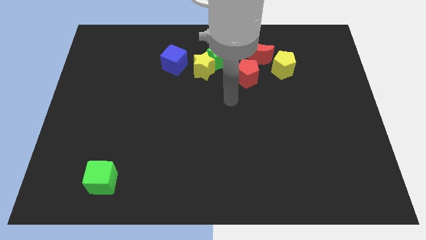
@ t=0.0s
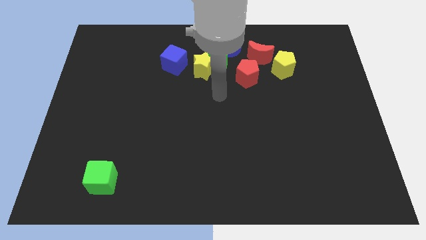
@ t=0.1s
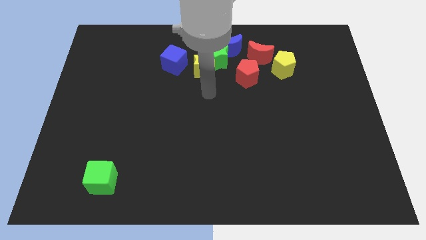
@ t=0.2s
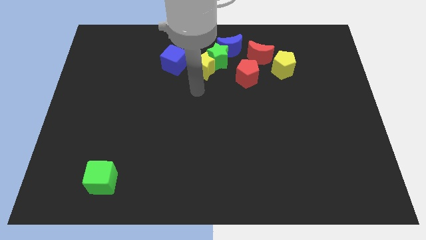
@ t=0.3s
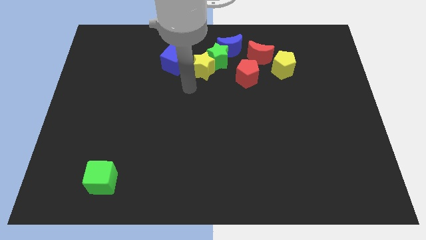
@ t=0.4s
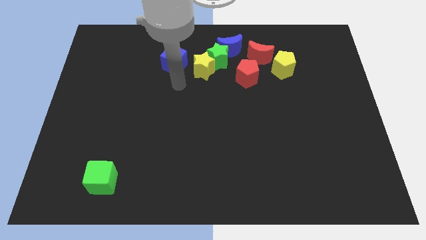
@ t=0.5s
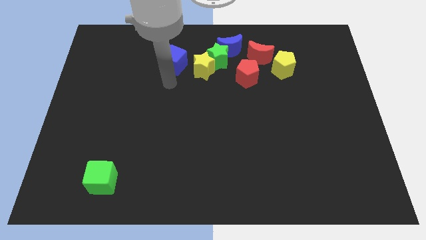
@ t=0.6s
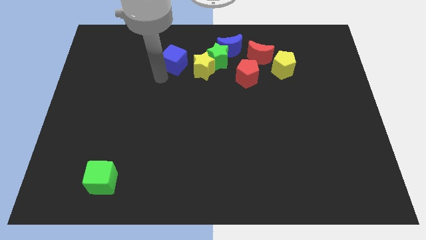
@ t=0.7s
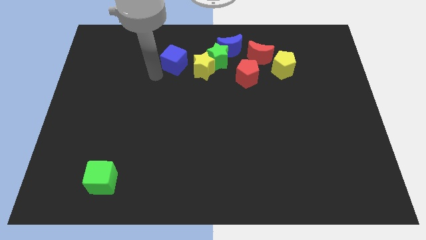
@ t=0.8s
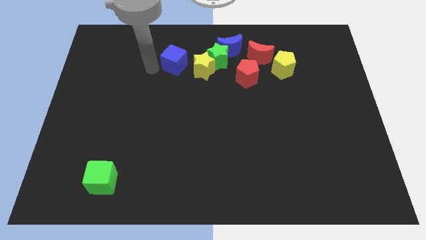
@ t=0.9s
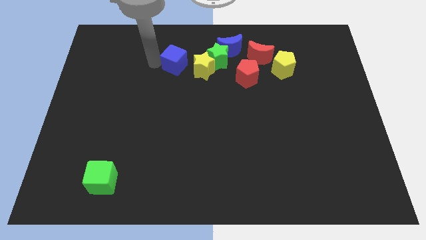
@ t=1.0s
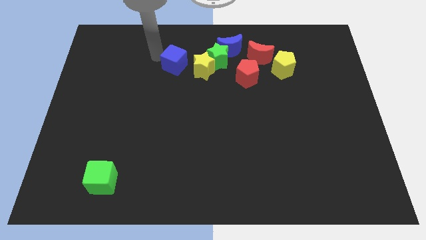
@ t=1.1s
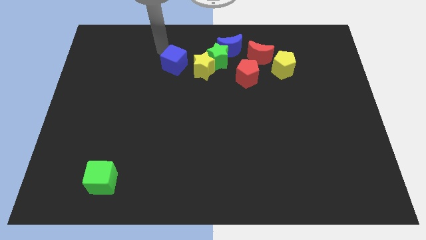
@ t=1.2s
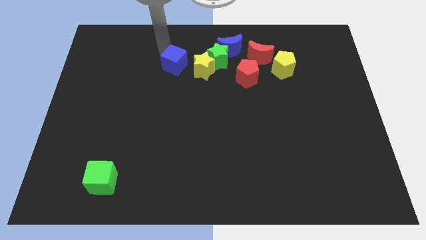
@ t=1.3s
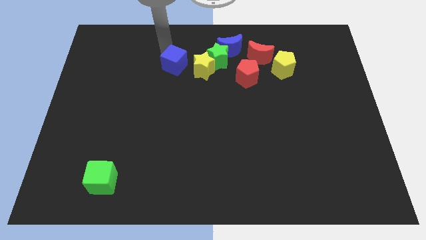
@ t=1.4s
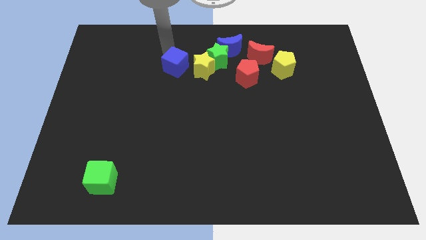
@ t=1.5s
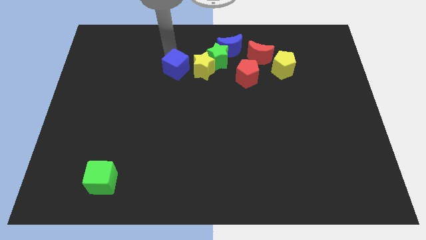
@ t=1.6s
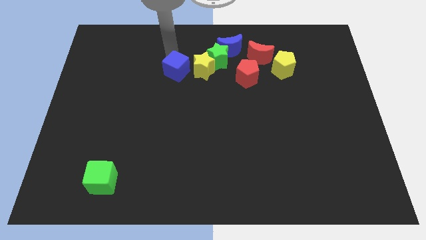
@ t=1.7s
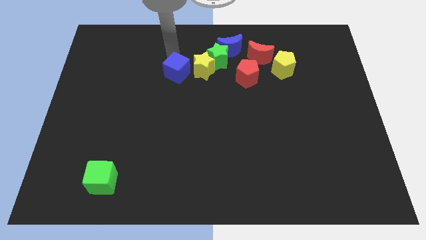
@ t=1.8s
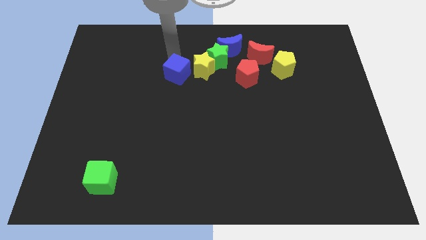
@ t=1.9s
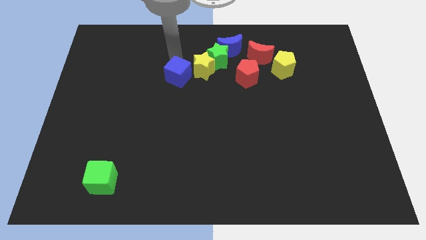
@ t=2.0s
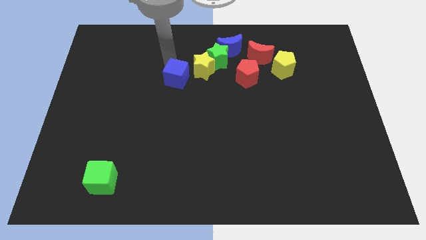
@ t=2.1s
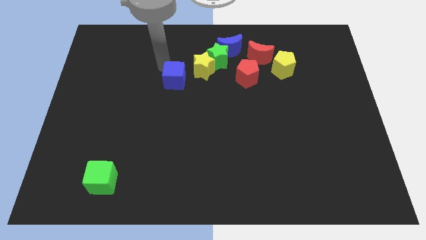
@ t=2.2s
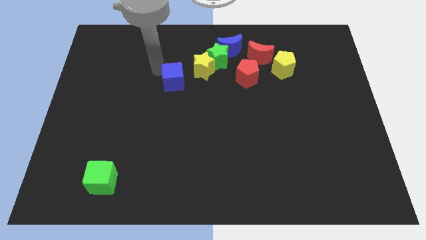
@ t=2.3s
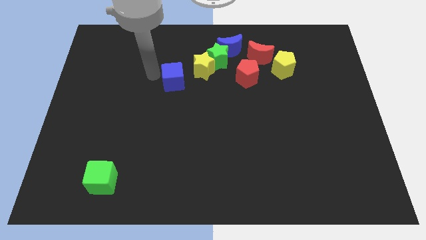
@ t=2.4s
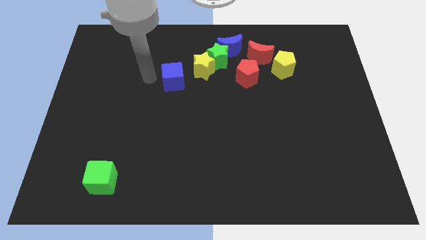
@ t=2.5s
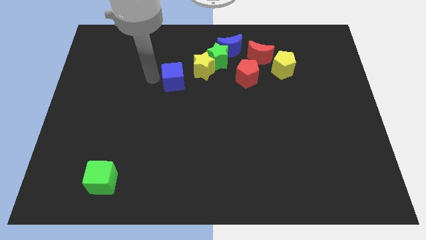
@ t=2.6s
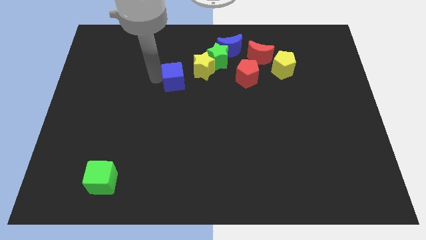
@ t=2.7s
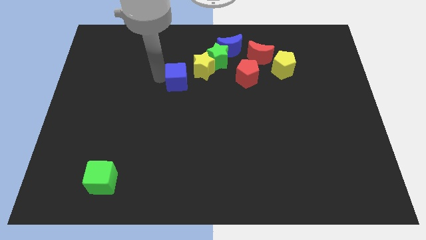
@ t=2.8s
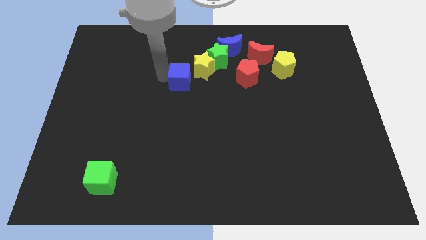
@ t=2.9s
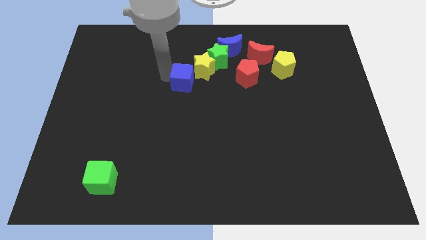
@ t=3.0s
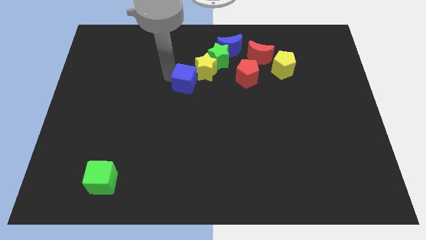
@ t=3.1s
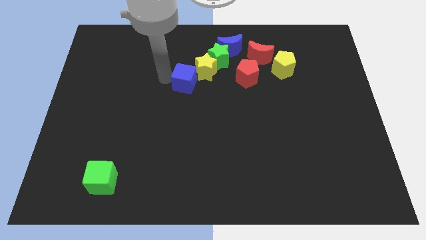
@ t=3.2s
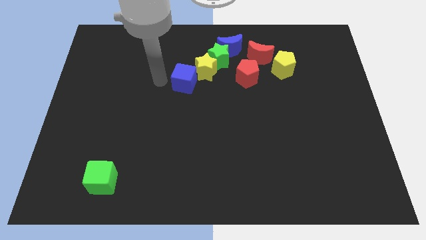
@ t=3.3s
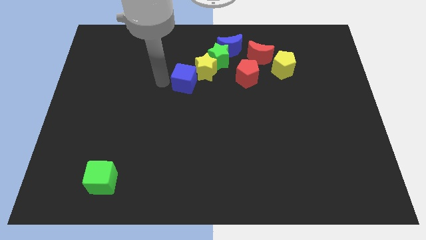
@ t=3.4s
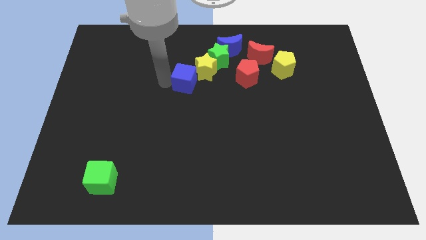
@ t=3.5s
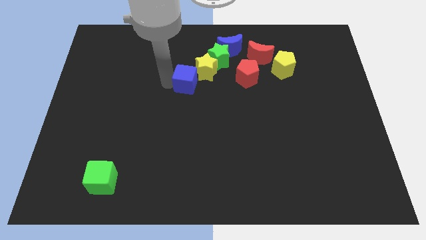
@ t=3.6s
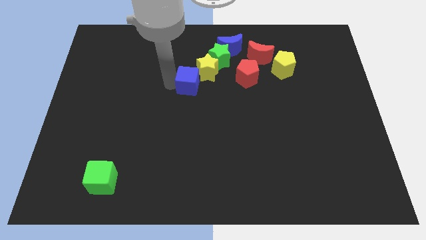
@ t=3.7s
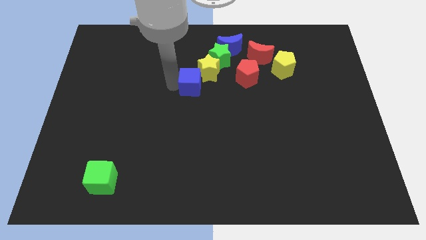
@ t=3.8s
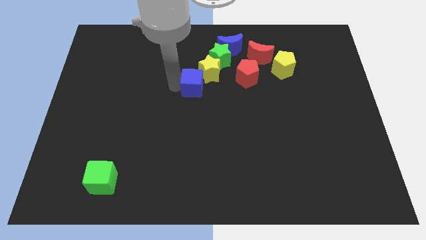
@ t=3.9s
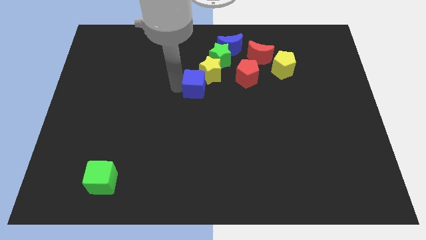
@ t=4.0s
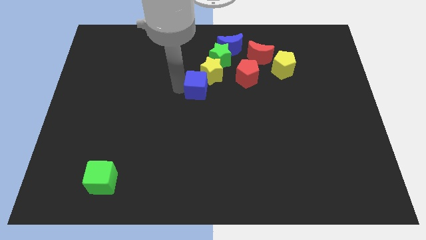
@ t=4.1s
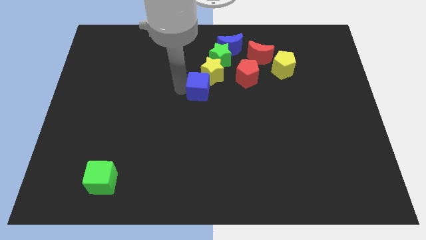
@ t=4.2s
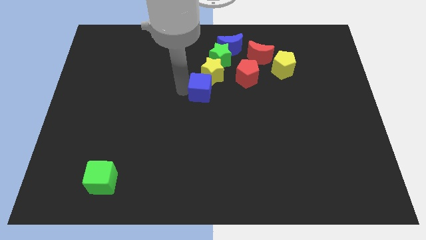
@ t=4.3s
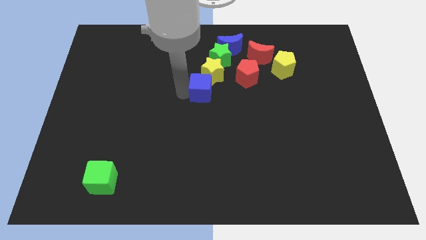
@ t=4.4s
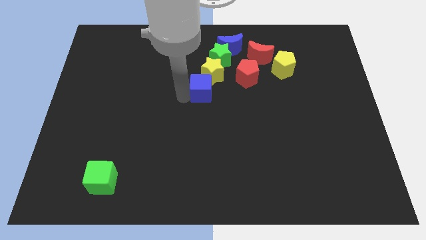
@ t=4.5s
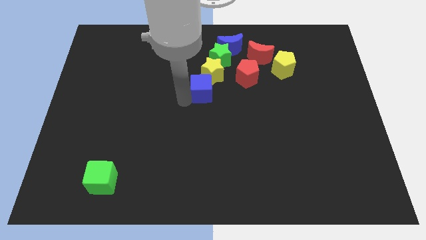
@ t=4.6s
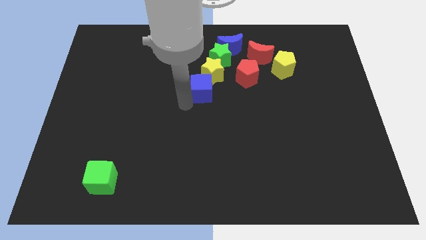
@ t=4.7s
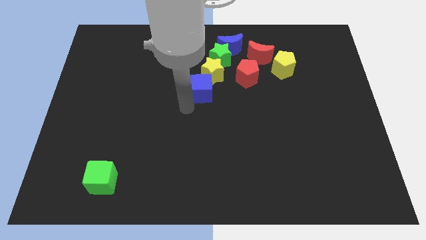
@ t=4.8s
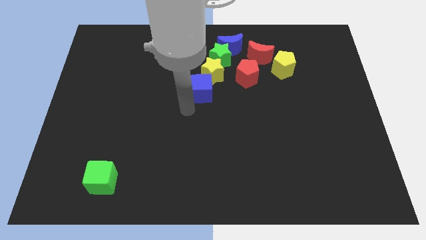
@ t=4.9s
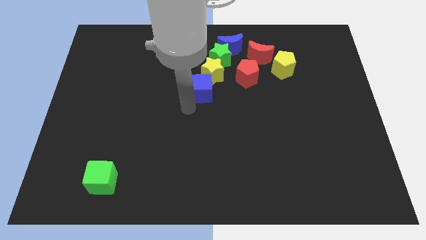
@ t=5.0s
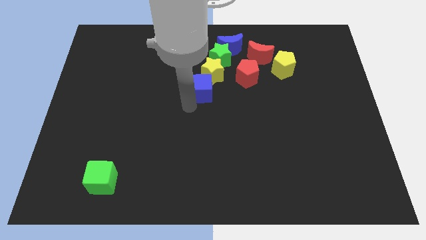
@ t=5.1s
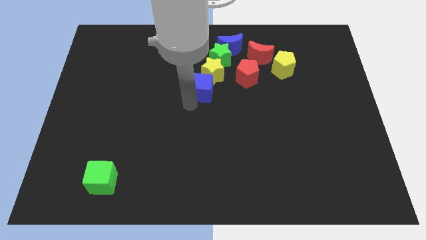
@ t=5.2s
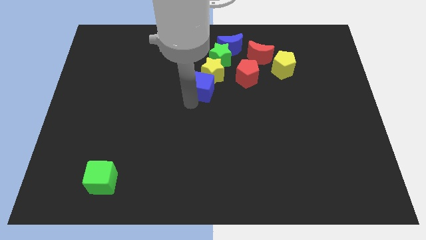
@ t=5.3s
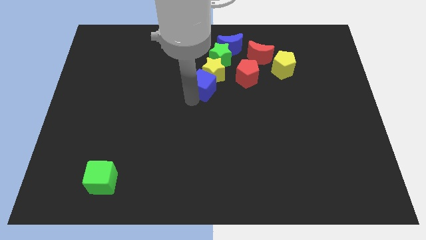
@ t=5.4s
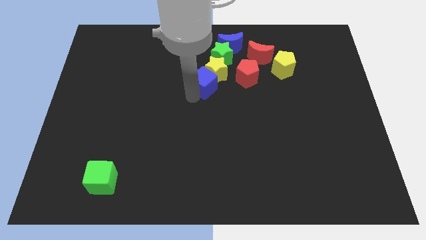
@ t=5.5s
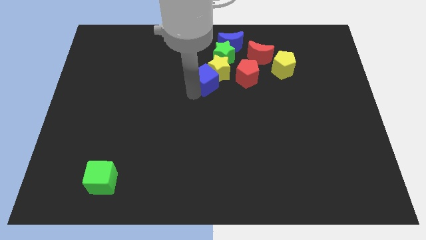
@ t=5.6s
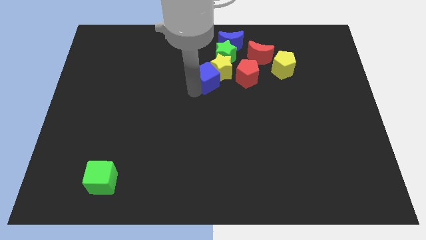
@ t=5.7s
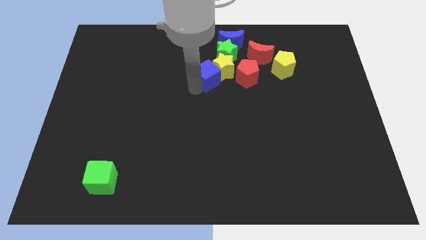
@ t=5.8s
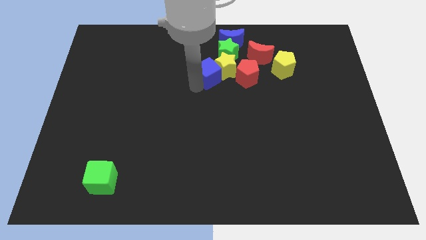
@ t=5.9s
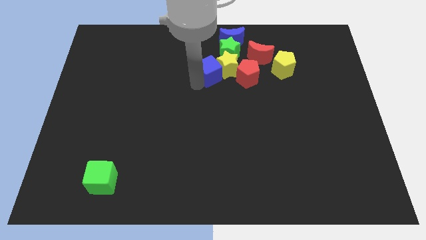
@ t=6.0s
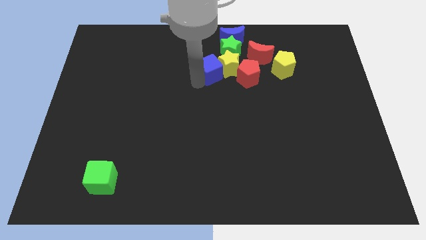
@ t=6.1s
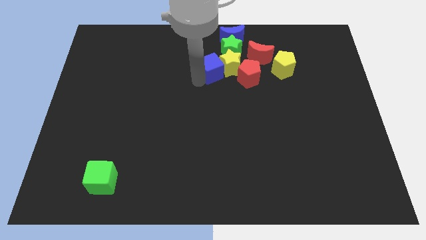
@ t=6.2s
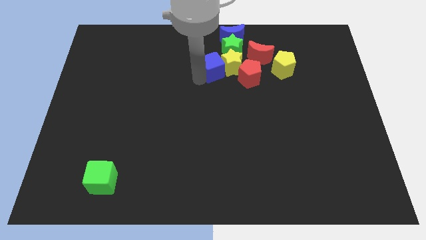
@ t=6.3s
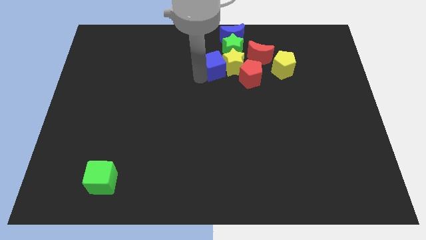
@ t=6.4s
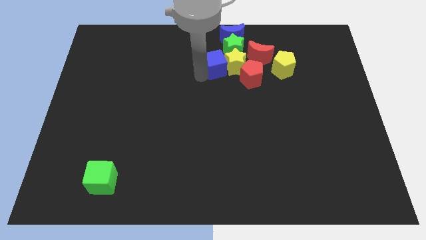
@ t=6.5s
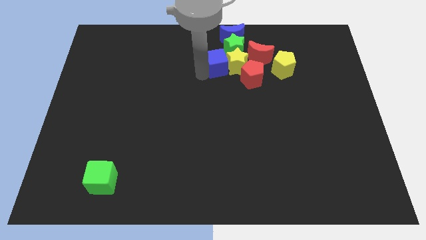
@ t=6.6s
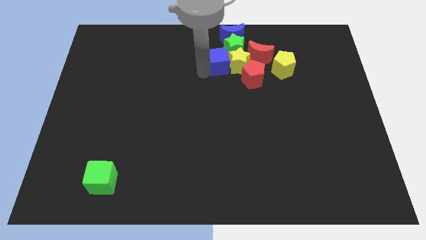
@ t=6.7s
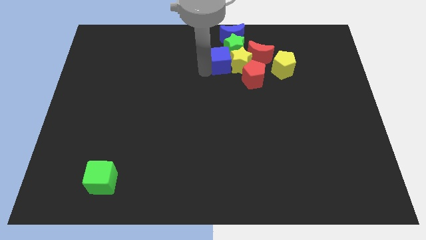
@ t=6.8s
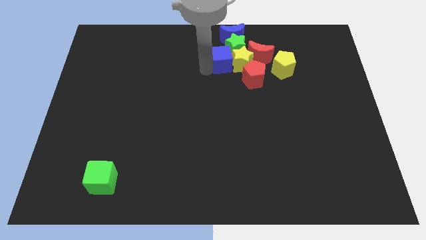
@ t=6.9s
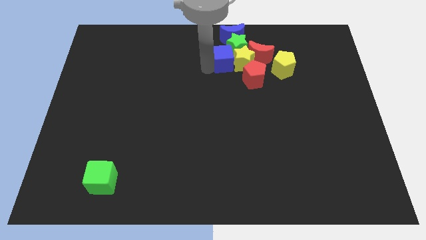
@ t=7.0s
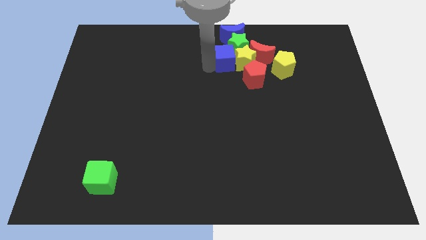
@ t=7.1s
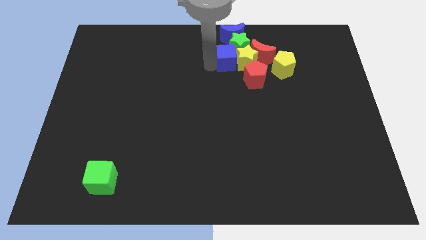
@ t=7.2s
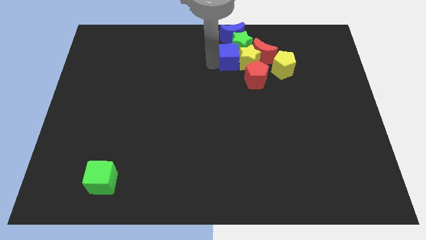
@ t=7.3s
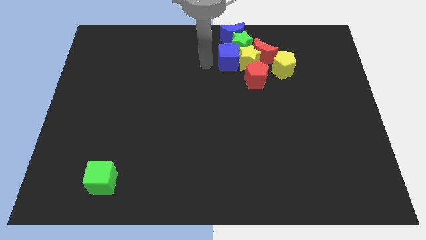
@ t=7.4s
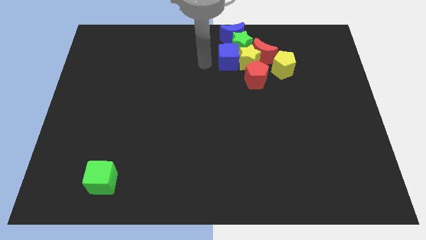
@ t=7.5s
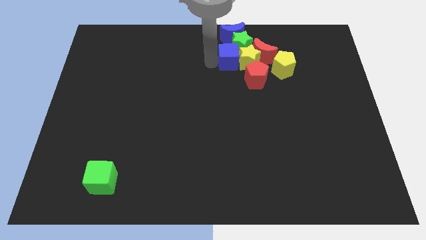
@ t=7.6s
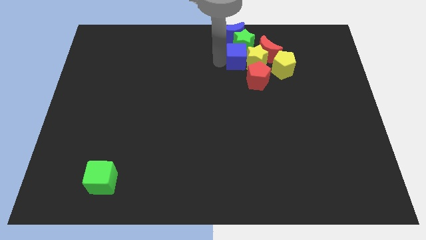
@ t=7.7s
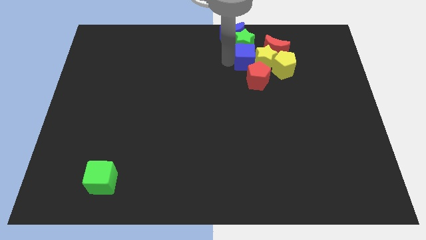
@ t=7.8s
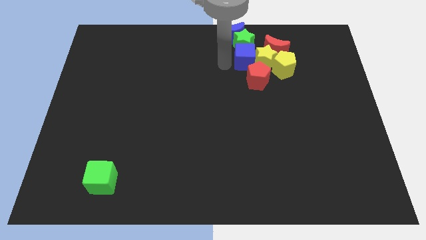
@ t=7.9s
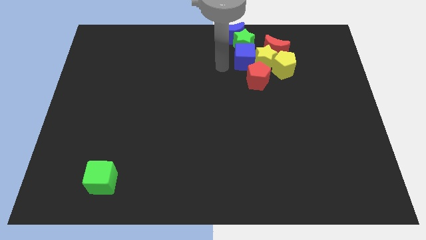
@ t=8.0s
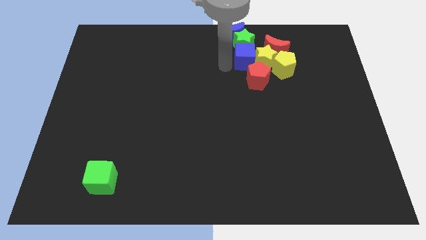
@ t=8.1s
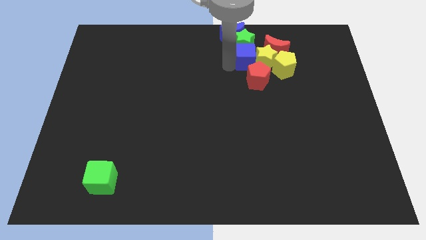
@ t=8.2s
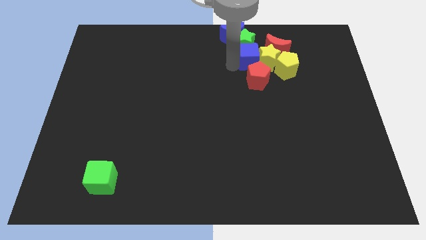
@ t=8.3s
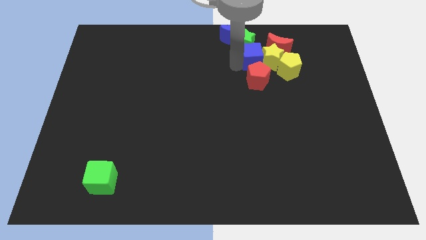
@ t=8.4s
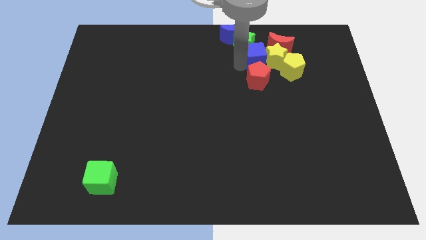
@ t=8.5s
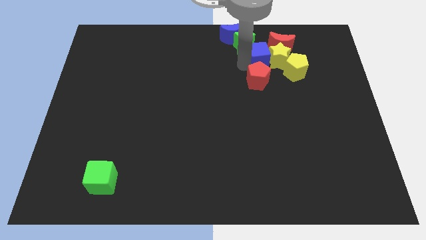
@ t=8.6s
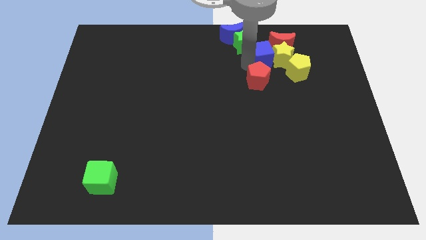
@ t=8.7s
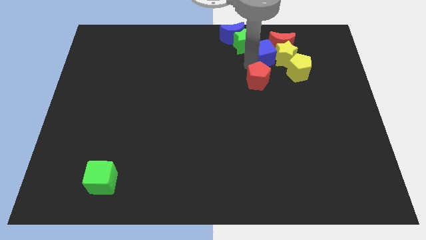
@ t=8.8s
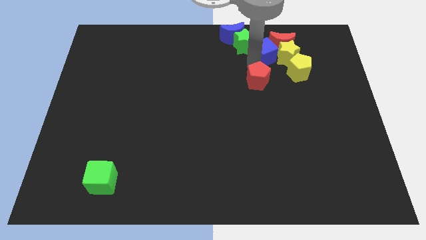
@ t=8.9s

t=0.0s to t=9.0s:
slide the blue cube towards the red moon
